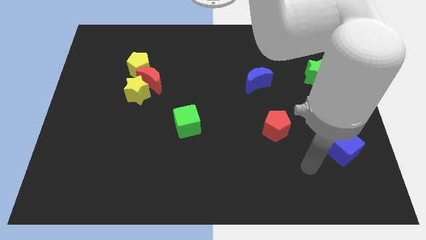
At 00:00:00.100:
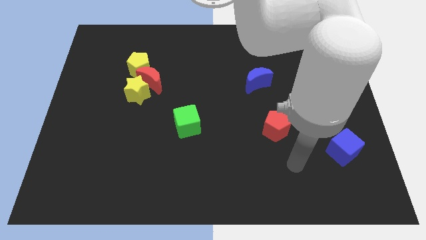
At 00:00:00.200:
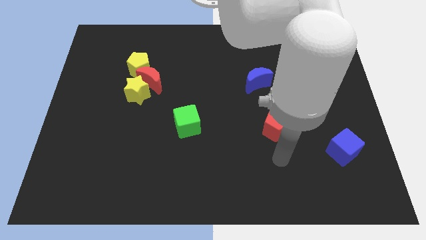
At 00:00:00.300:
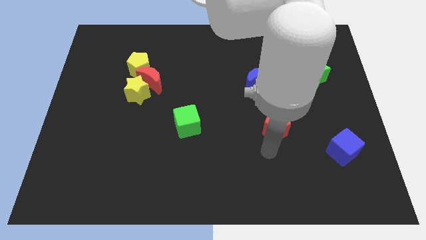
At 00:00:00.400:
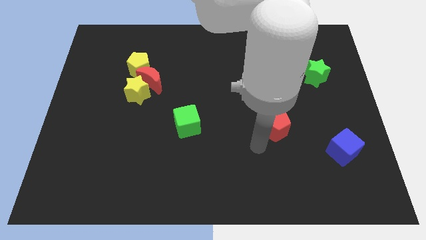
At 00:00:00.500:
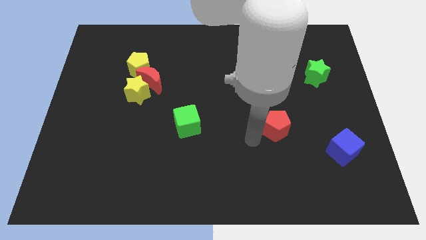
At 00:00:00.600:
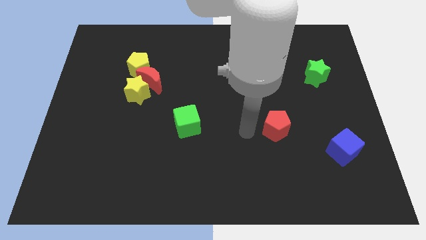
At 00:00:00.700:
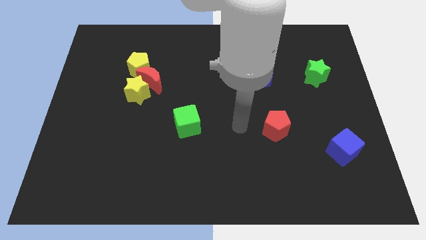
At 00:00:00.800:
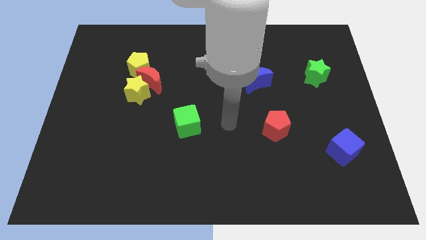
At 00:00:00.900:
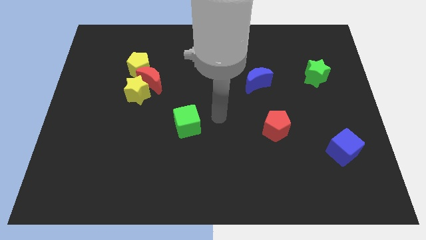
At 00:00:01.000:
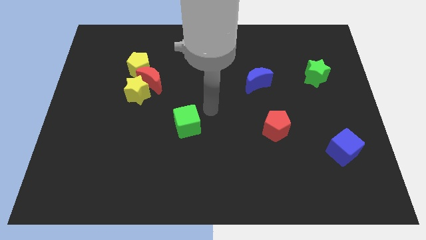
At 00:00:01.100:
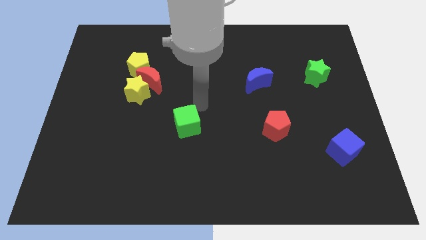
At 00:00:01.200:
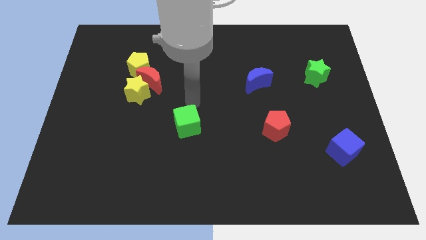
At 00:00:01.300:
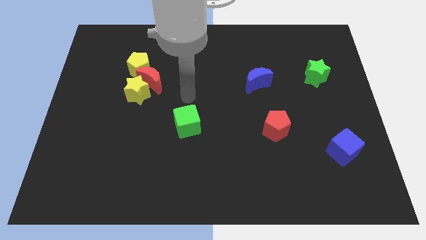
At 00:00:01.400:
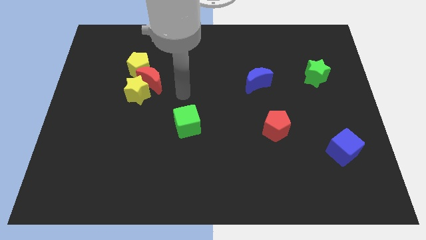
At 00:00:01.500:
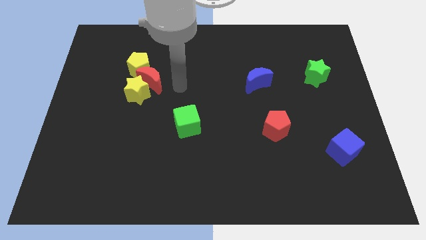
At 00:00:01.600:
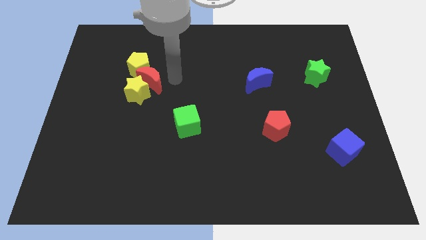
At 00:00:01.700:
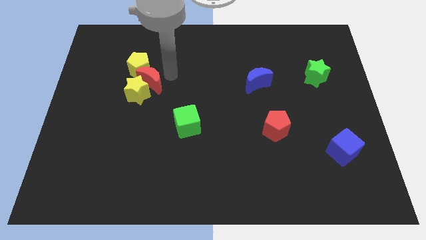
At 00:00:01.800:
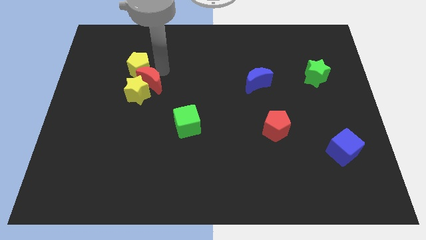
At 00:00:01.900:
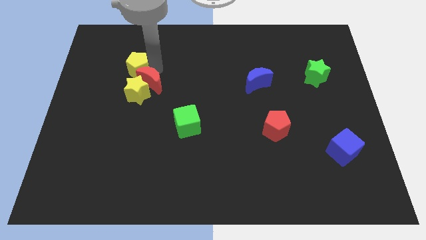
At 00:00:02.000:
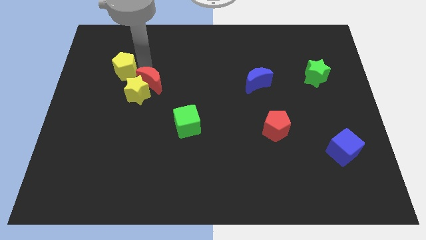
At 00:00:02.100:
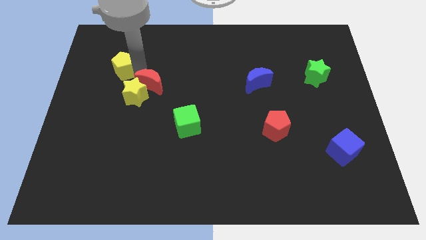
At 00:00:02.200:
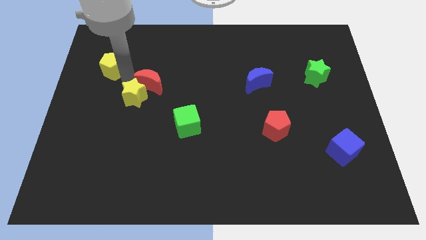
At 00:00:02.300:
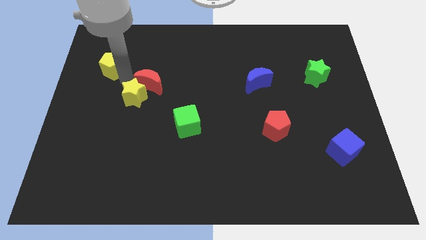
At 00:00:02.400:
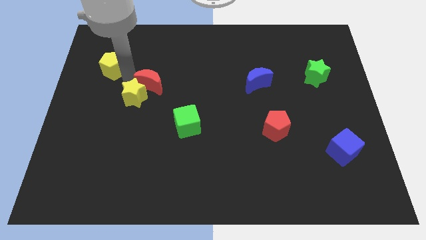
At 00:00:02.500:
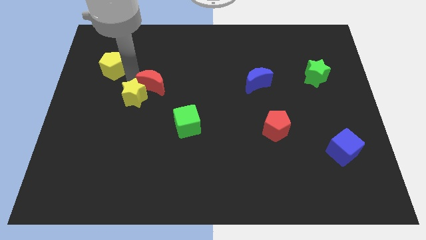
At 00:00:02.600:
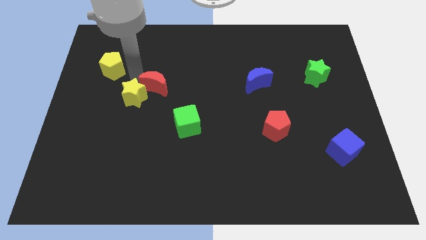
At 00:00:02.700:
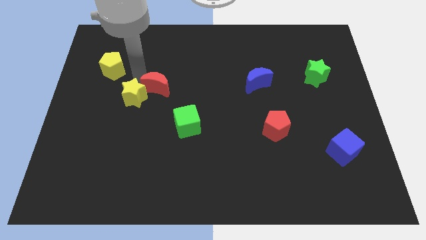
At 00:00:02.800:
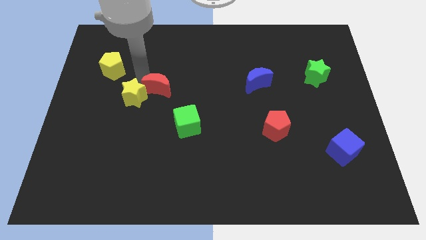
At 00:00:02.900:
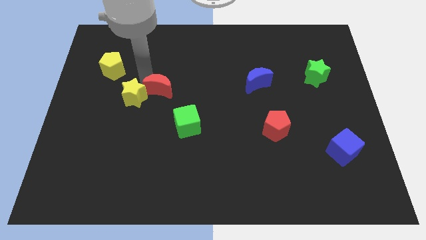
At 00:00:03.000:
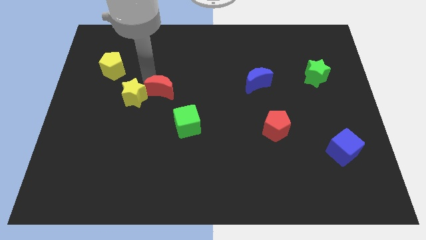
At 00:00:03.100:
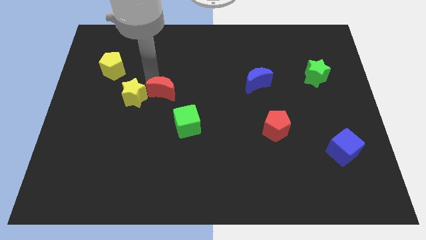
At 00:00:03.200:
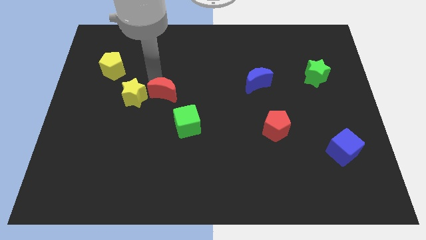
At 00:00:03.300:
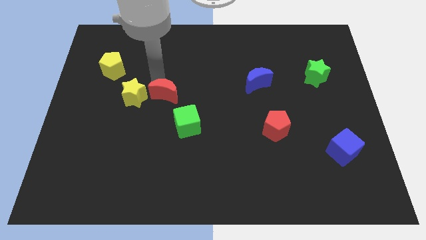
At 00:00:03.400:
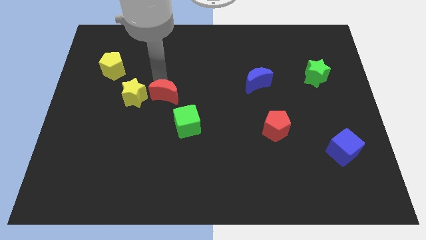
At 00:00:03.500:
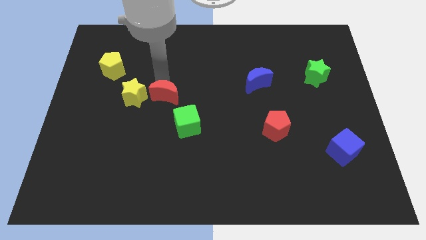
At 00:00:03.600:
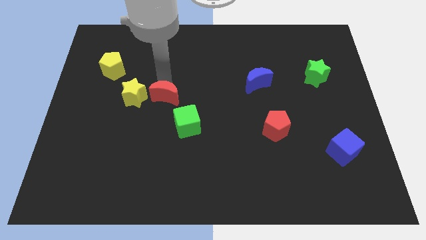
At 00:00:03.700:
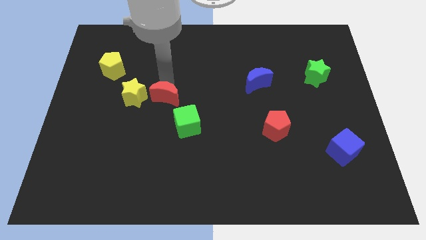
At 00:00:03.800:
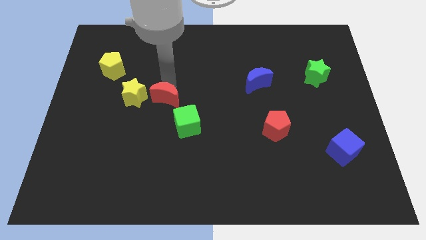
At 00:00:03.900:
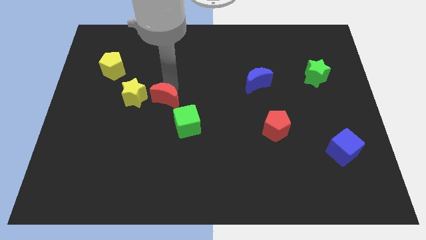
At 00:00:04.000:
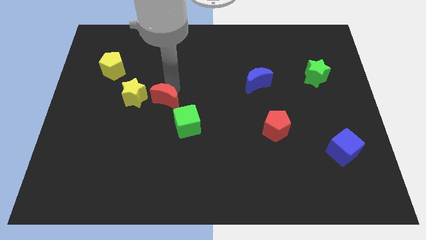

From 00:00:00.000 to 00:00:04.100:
push the red moon slightly diagonally downwards and right

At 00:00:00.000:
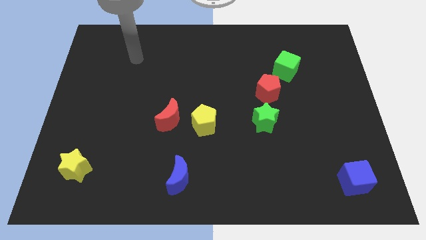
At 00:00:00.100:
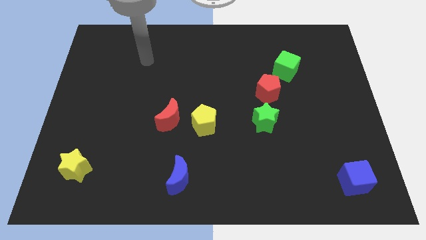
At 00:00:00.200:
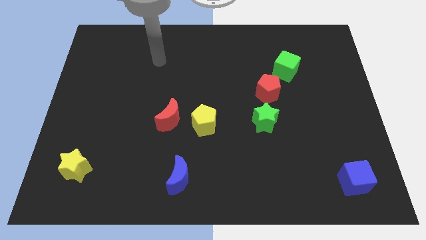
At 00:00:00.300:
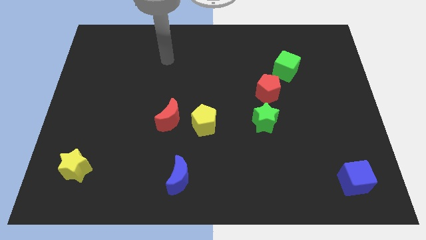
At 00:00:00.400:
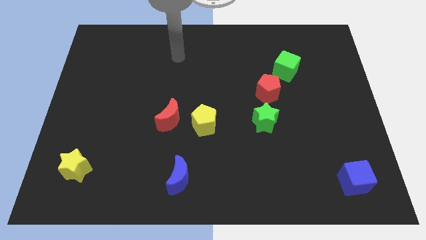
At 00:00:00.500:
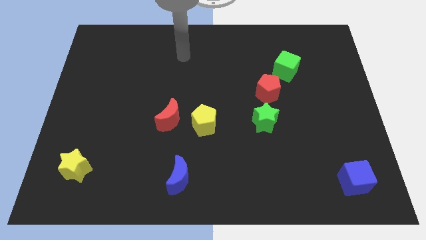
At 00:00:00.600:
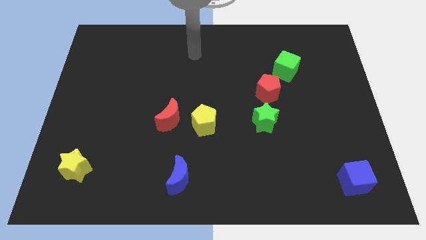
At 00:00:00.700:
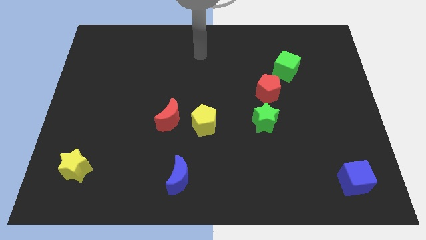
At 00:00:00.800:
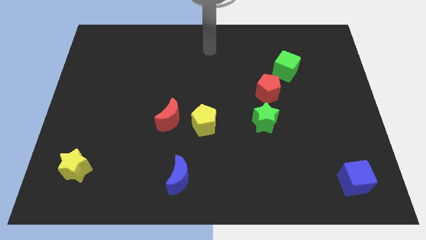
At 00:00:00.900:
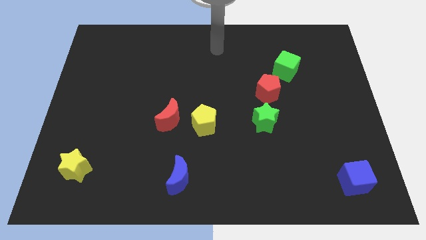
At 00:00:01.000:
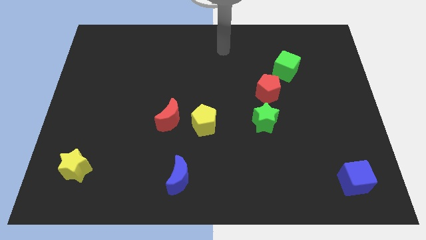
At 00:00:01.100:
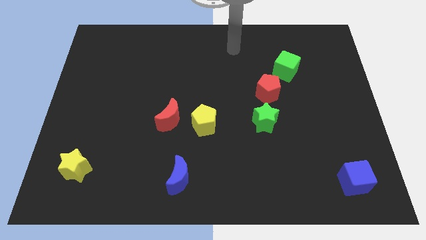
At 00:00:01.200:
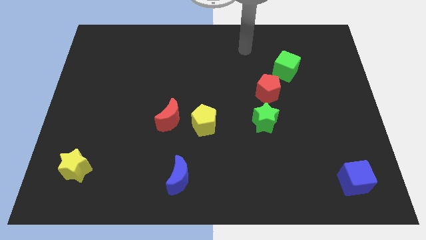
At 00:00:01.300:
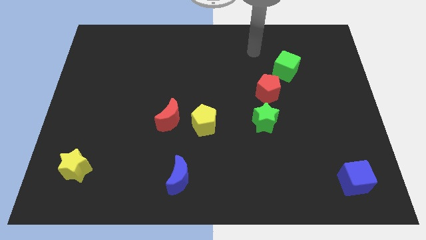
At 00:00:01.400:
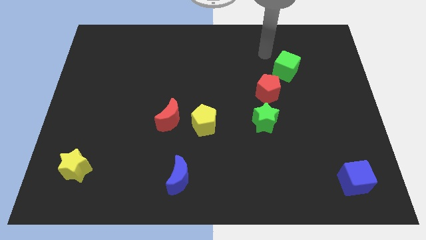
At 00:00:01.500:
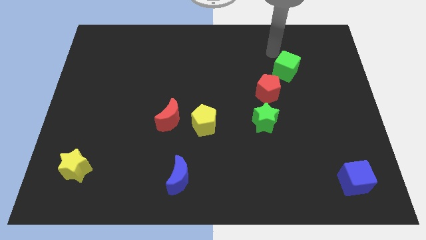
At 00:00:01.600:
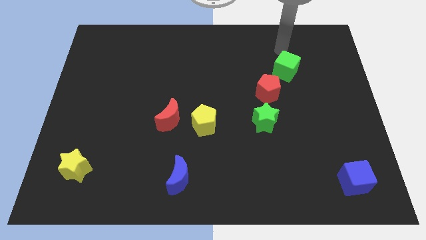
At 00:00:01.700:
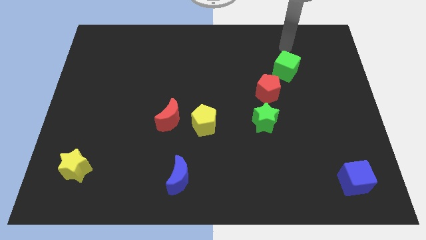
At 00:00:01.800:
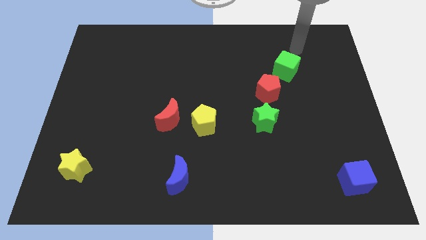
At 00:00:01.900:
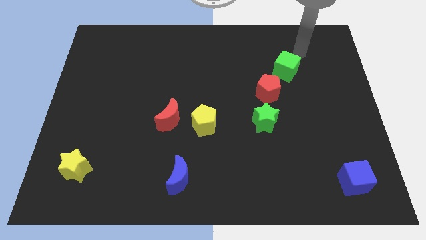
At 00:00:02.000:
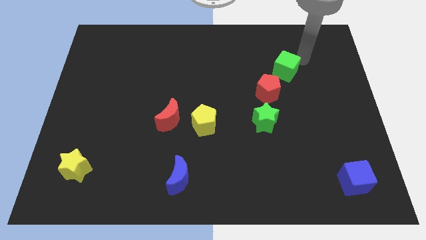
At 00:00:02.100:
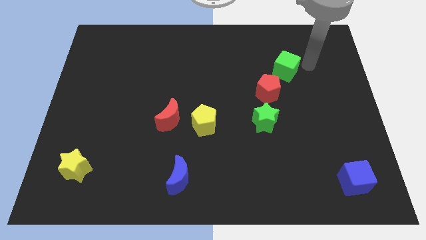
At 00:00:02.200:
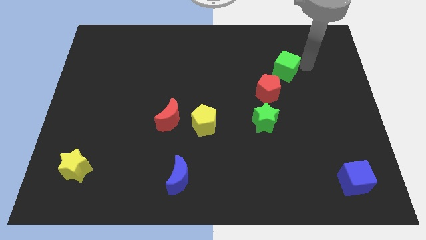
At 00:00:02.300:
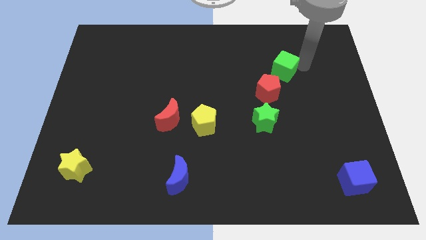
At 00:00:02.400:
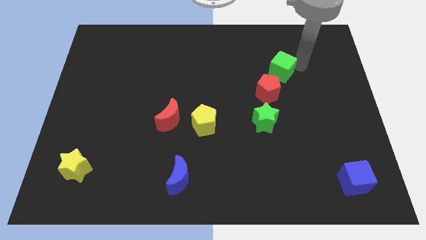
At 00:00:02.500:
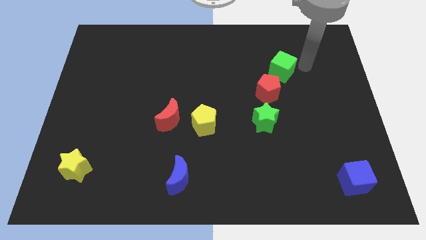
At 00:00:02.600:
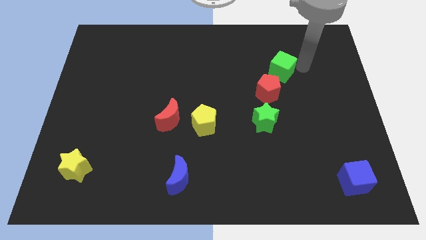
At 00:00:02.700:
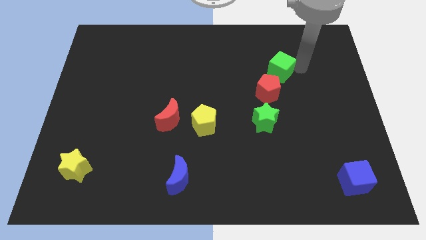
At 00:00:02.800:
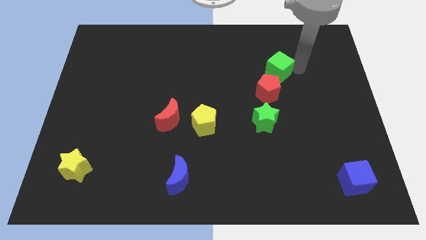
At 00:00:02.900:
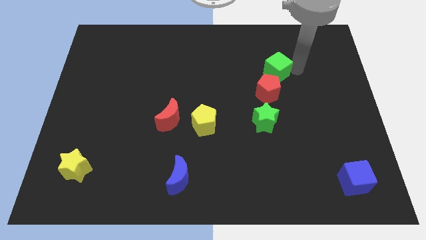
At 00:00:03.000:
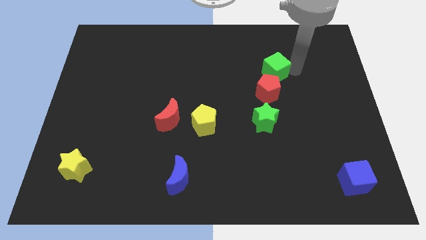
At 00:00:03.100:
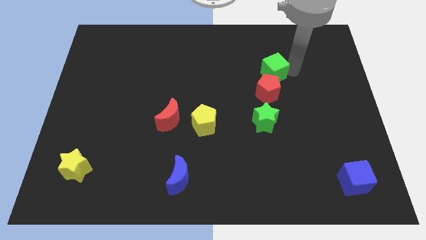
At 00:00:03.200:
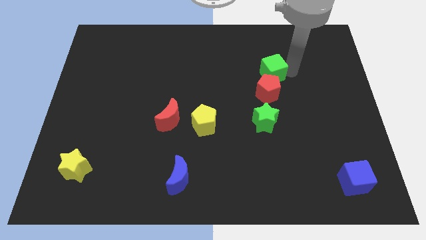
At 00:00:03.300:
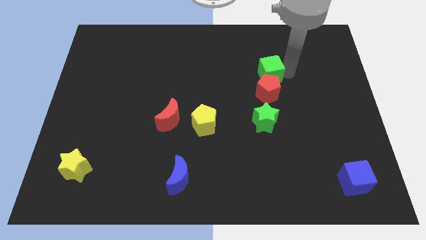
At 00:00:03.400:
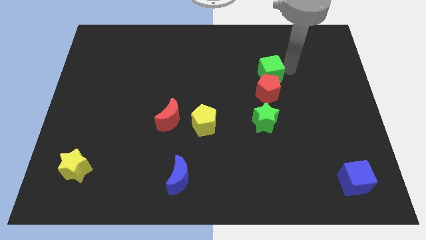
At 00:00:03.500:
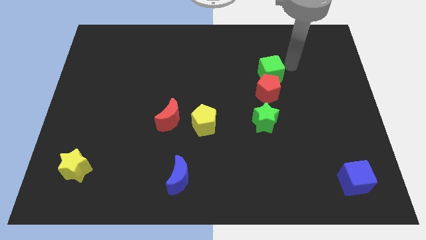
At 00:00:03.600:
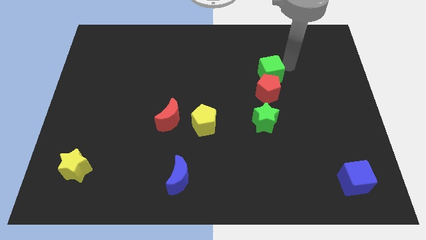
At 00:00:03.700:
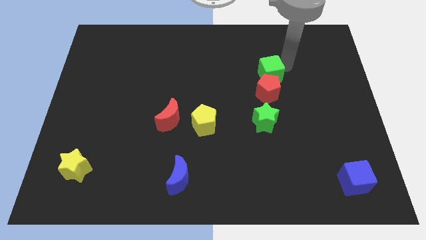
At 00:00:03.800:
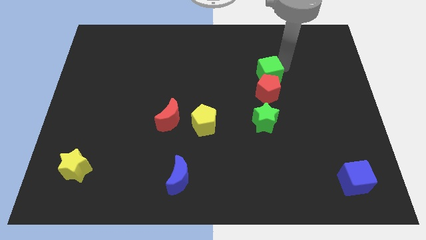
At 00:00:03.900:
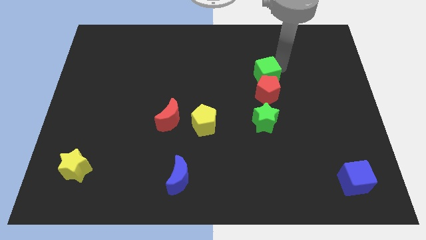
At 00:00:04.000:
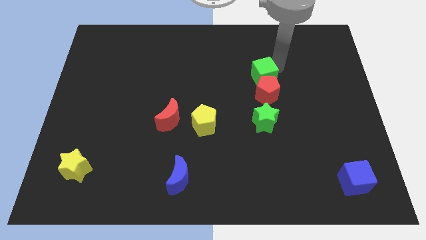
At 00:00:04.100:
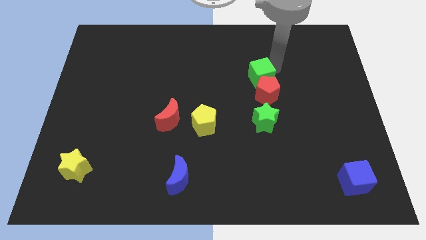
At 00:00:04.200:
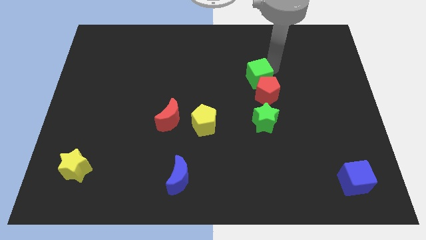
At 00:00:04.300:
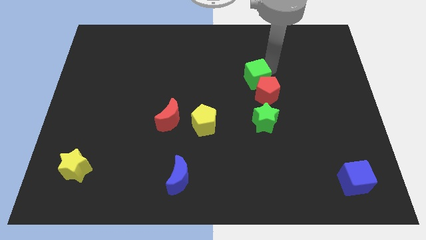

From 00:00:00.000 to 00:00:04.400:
move the green cube slightly downwards and to the left
